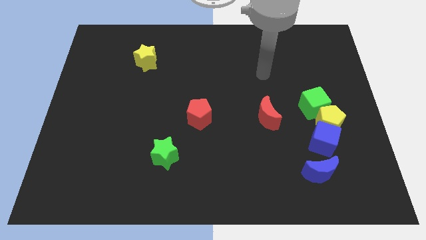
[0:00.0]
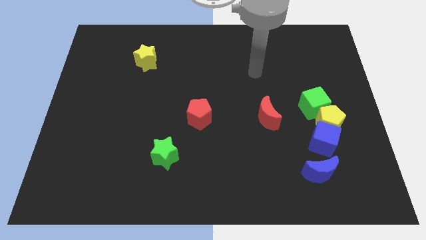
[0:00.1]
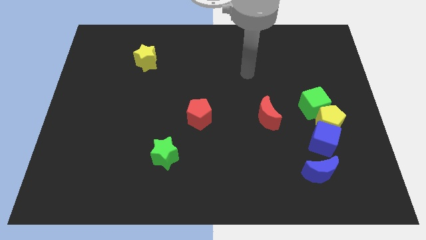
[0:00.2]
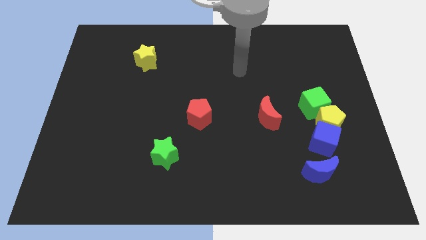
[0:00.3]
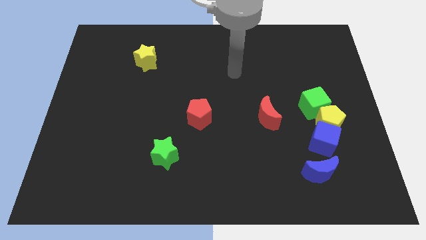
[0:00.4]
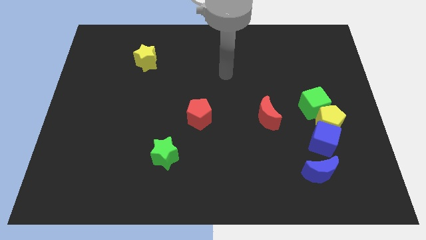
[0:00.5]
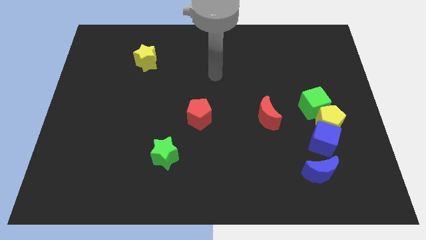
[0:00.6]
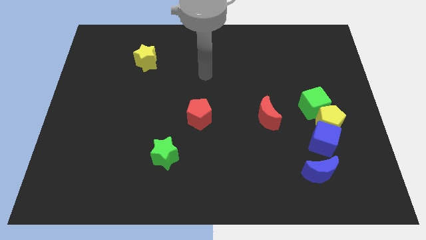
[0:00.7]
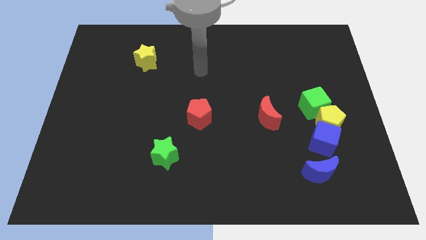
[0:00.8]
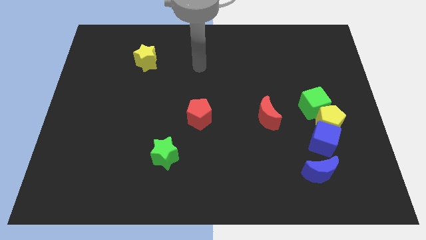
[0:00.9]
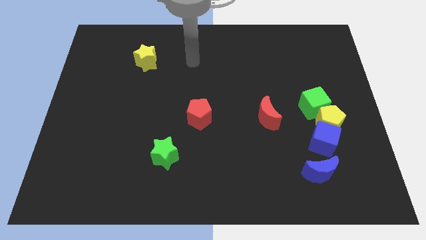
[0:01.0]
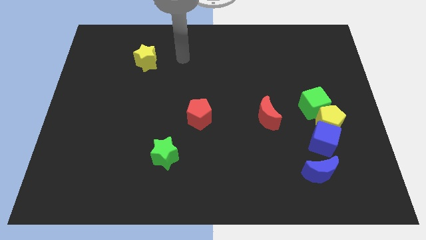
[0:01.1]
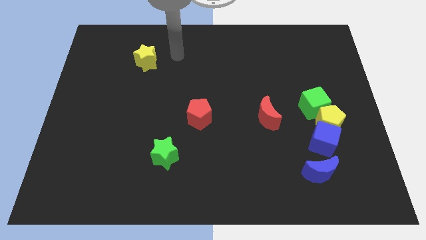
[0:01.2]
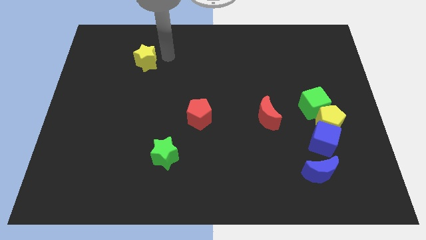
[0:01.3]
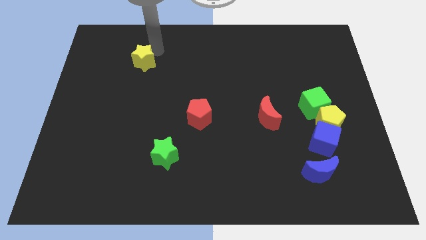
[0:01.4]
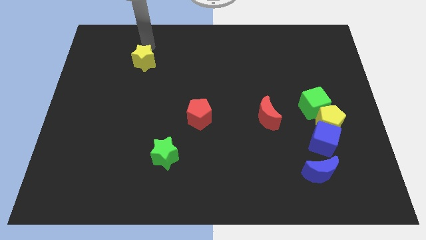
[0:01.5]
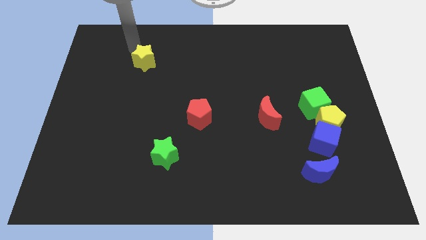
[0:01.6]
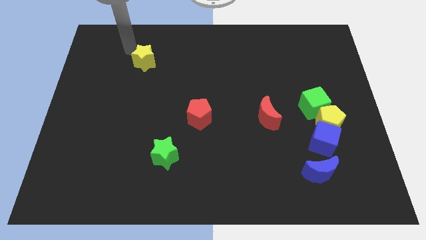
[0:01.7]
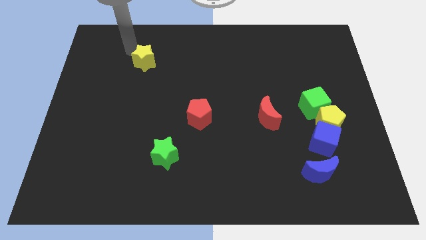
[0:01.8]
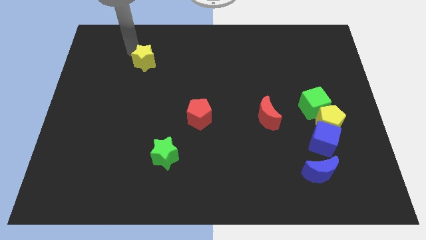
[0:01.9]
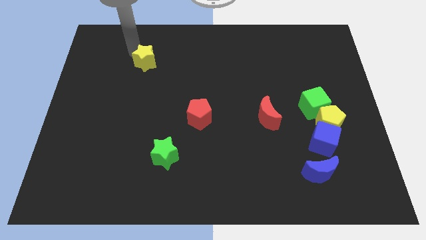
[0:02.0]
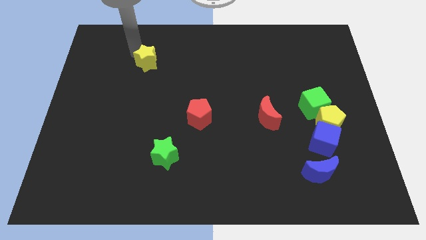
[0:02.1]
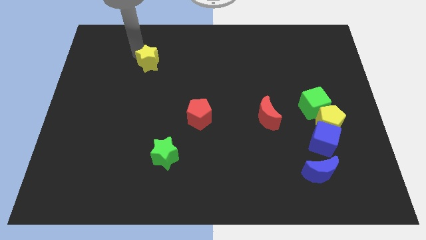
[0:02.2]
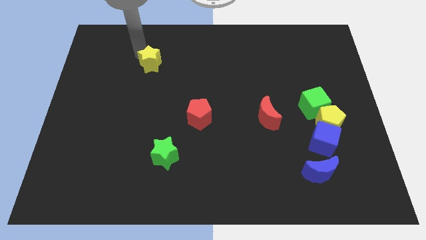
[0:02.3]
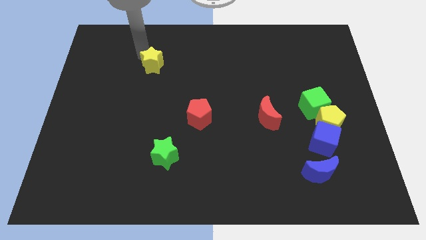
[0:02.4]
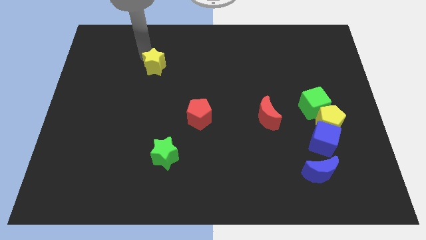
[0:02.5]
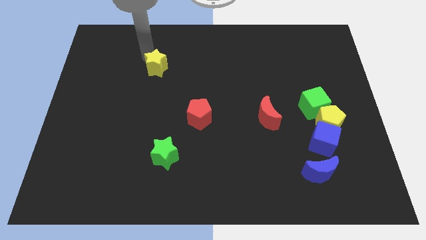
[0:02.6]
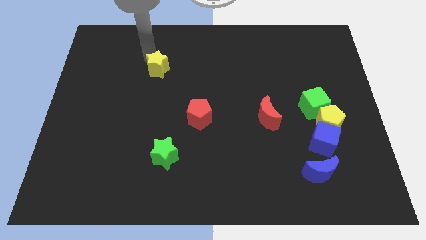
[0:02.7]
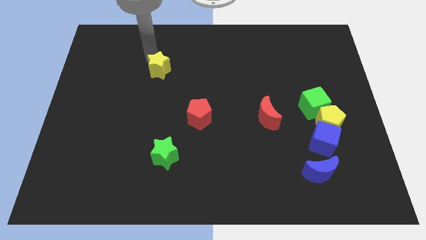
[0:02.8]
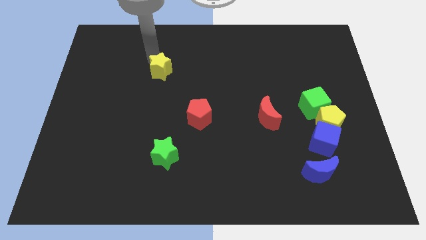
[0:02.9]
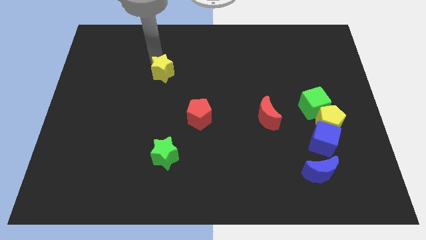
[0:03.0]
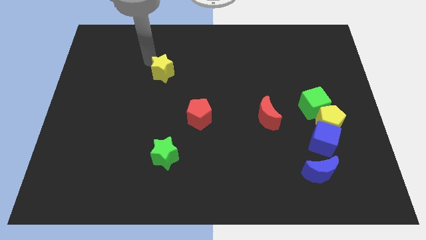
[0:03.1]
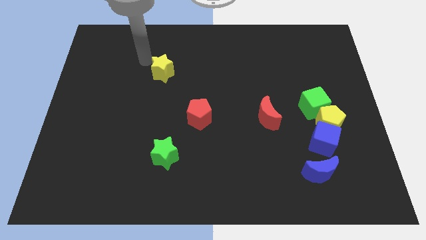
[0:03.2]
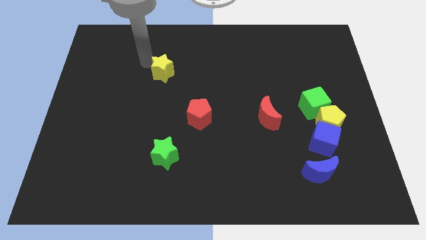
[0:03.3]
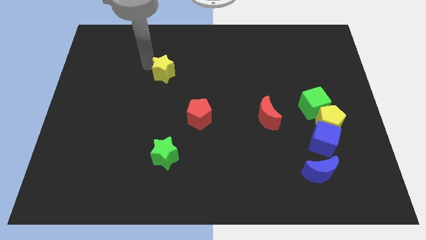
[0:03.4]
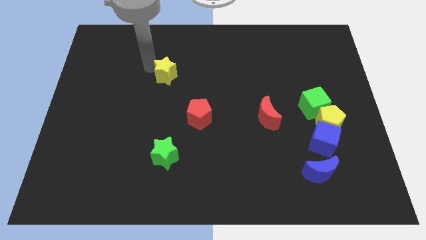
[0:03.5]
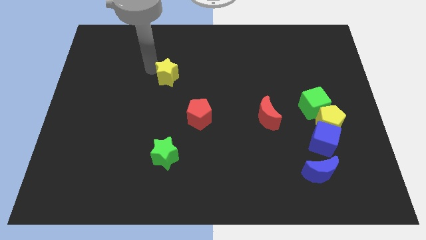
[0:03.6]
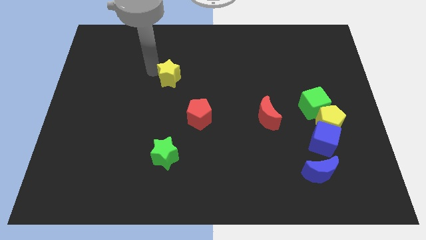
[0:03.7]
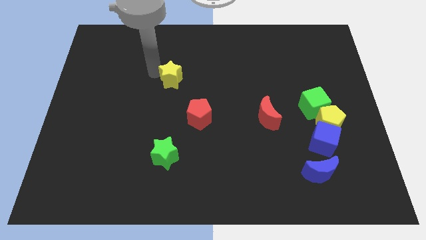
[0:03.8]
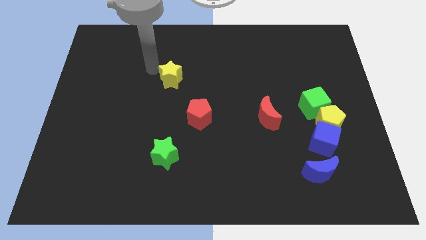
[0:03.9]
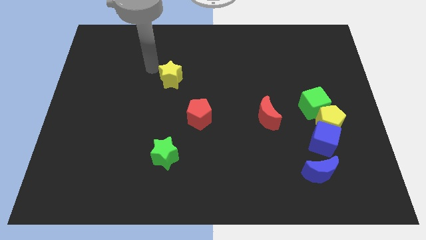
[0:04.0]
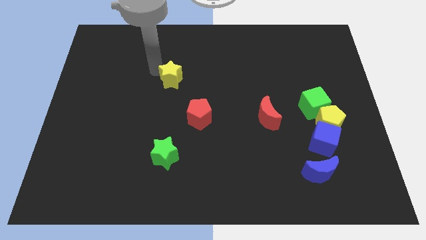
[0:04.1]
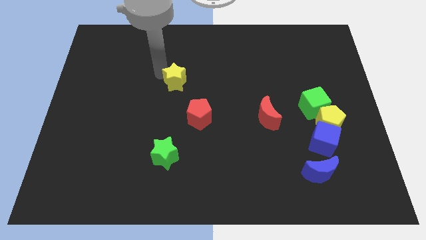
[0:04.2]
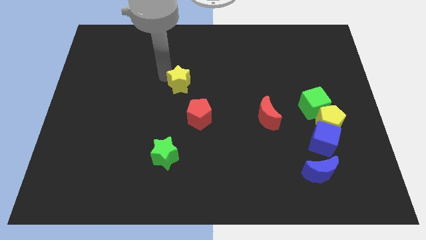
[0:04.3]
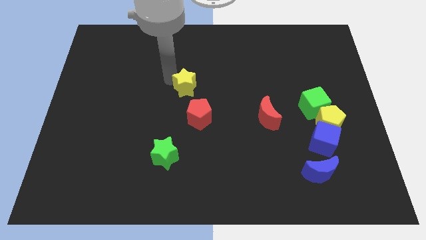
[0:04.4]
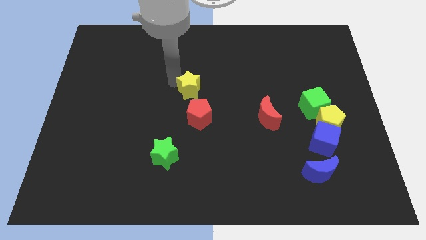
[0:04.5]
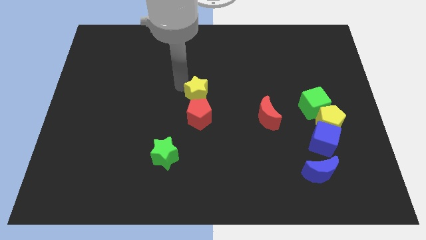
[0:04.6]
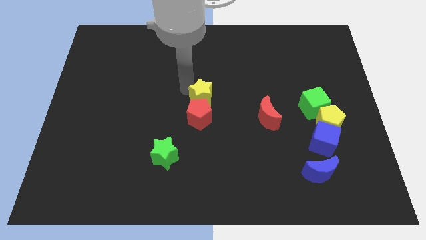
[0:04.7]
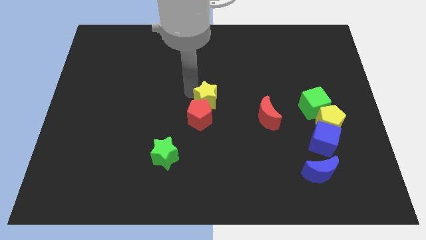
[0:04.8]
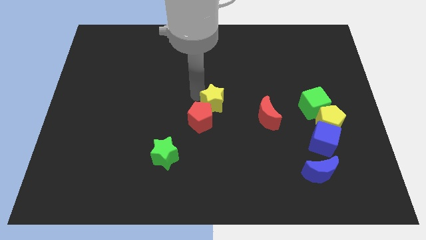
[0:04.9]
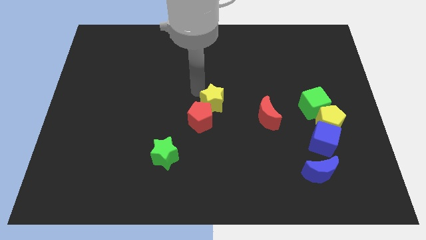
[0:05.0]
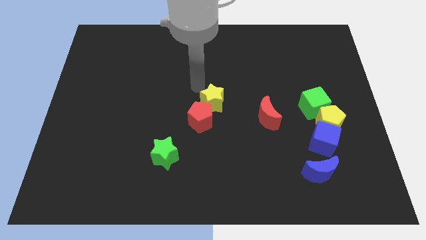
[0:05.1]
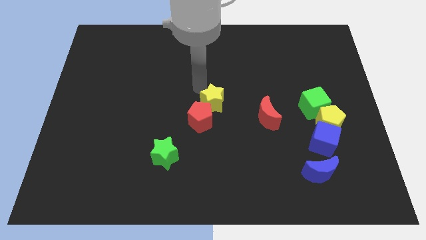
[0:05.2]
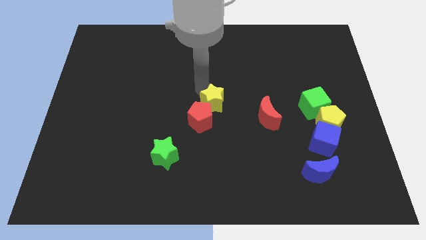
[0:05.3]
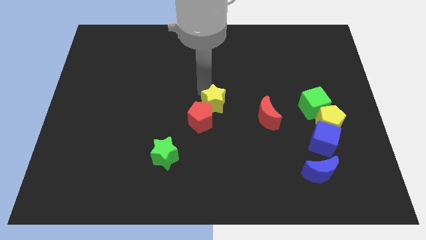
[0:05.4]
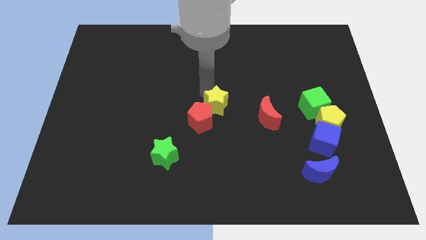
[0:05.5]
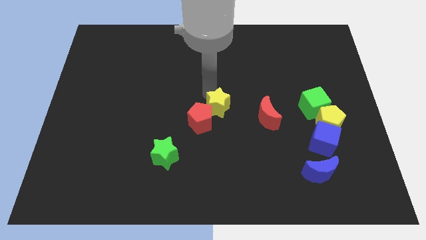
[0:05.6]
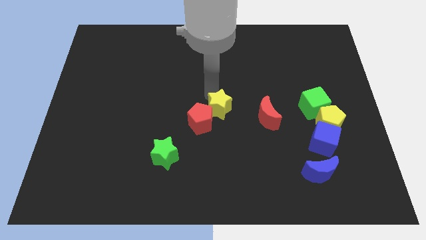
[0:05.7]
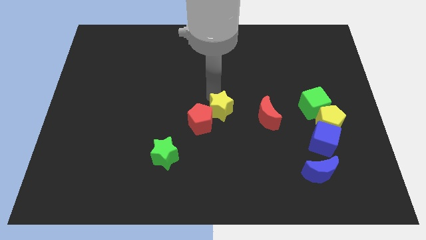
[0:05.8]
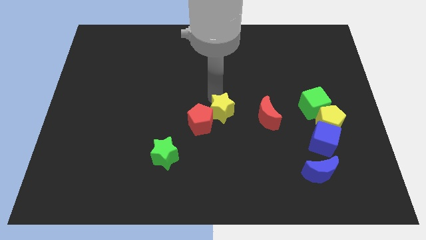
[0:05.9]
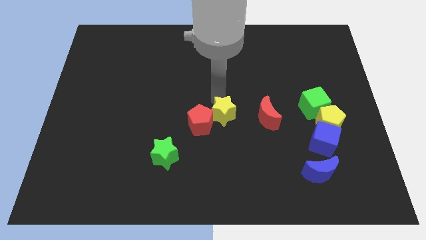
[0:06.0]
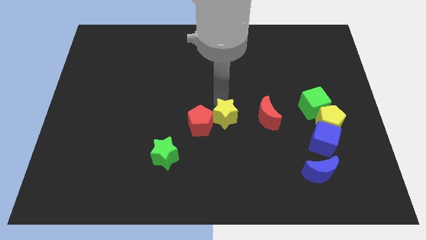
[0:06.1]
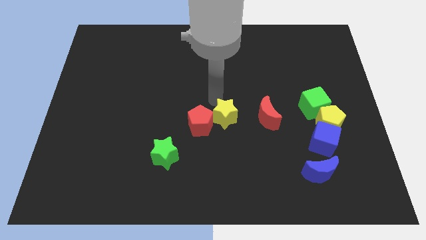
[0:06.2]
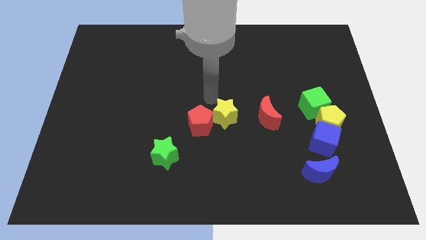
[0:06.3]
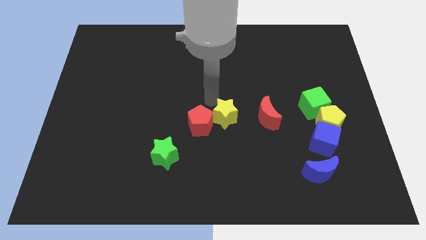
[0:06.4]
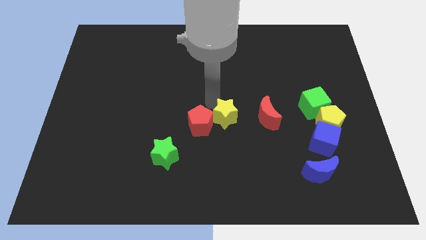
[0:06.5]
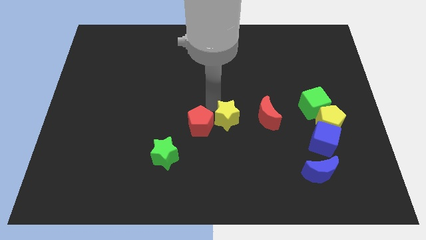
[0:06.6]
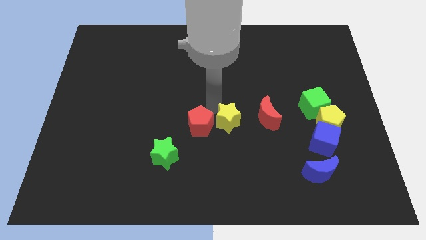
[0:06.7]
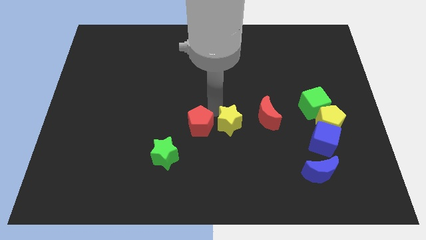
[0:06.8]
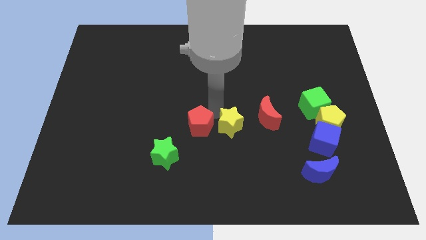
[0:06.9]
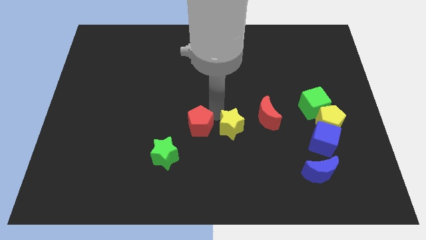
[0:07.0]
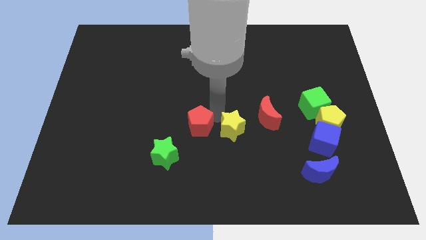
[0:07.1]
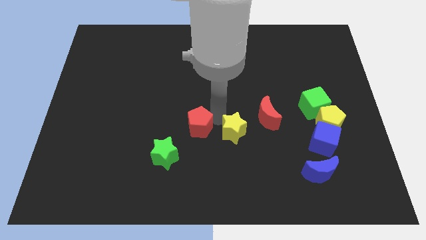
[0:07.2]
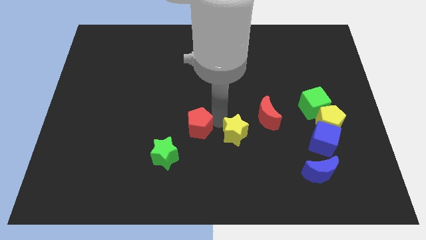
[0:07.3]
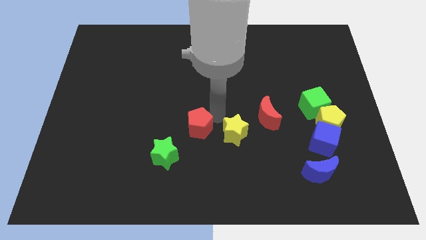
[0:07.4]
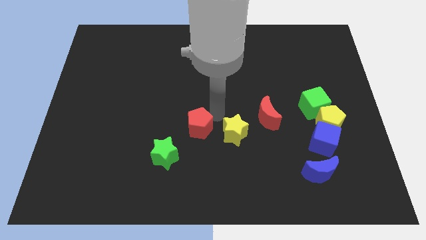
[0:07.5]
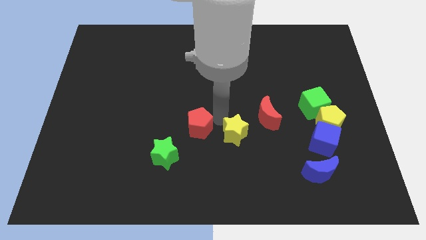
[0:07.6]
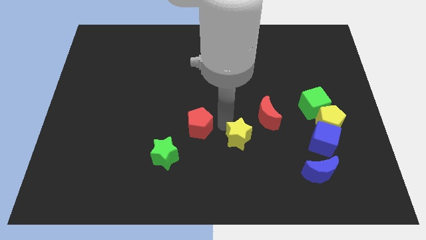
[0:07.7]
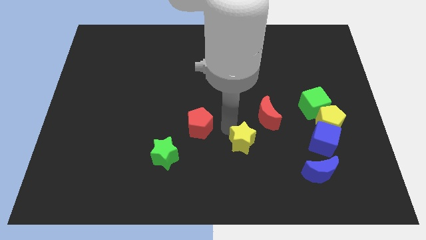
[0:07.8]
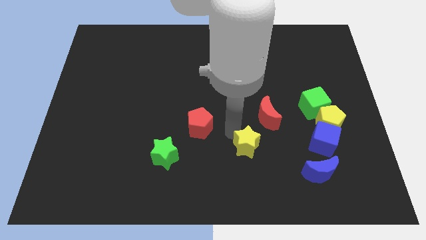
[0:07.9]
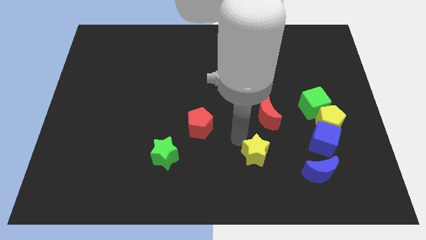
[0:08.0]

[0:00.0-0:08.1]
put the yellow star to the left side of the blue moon
